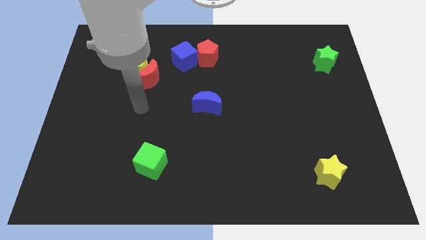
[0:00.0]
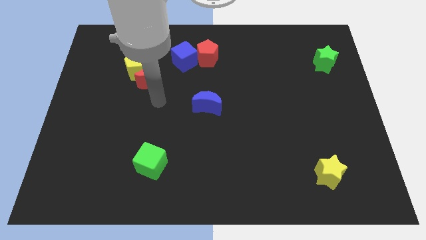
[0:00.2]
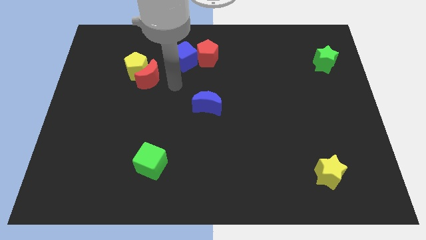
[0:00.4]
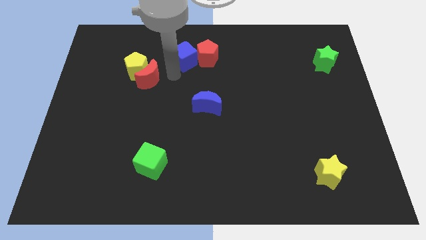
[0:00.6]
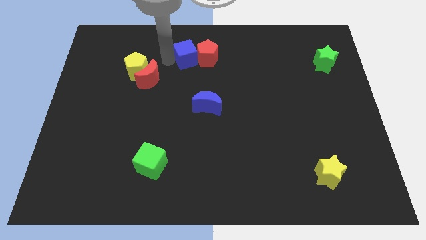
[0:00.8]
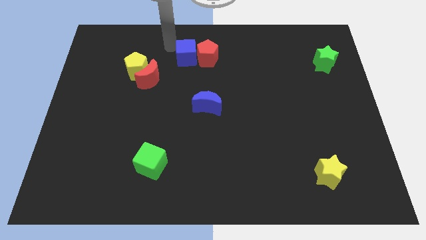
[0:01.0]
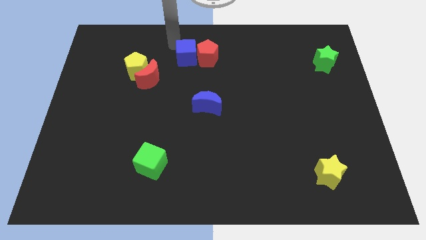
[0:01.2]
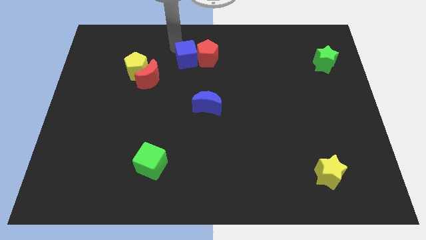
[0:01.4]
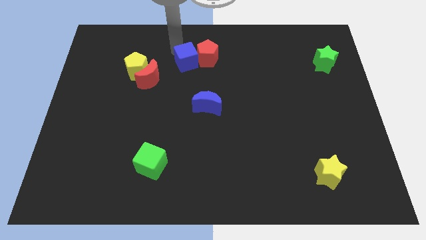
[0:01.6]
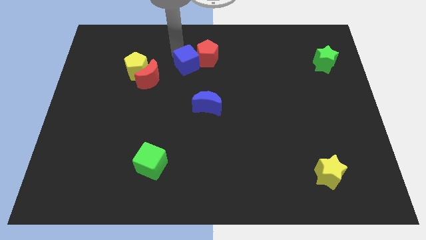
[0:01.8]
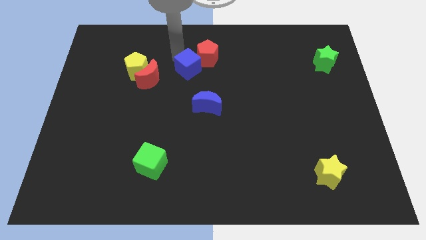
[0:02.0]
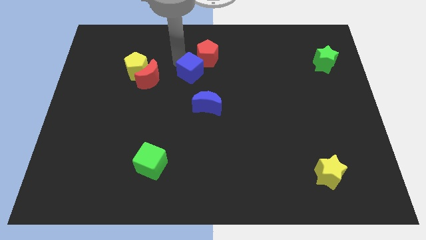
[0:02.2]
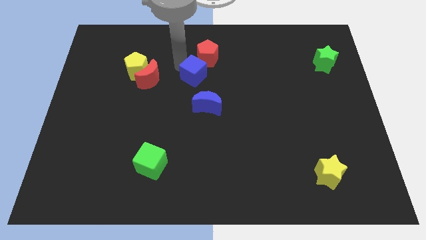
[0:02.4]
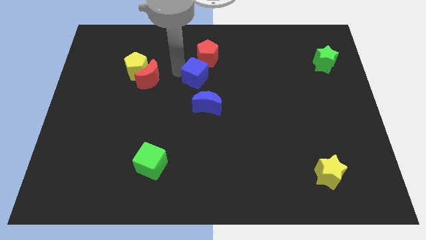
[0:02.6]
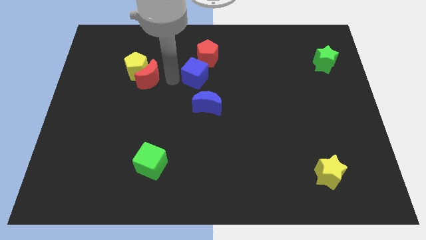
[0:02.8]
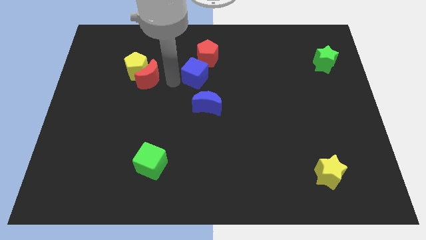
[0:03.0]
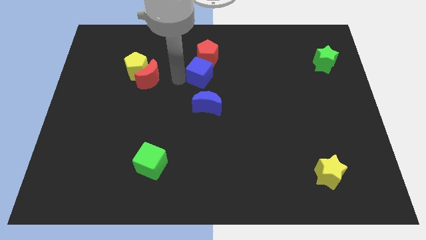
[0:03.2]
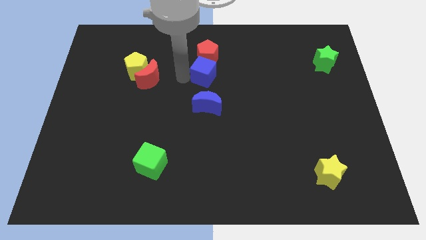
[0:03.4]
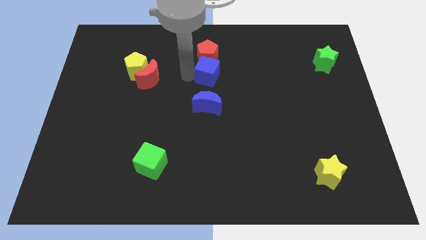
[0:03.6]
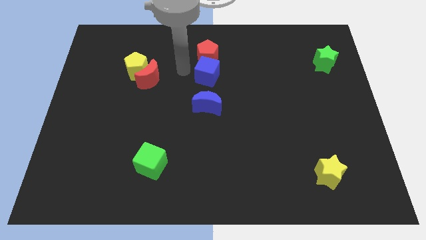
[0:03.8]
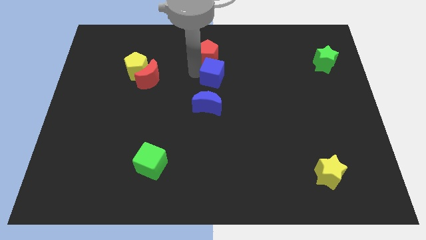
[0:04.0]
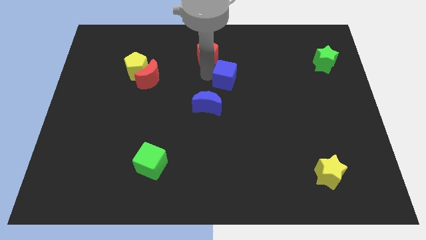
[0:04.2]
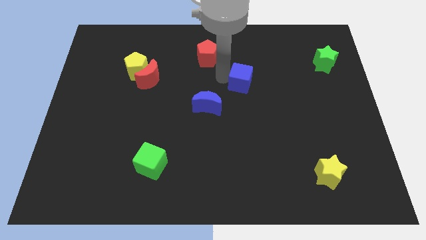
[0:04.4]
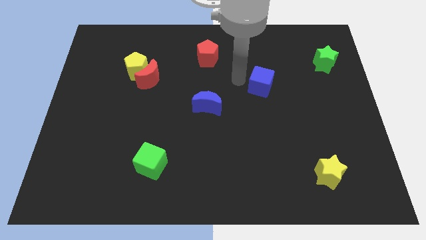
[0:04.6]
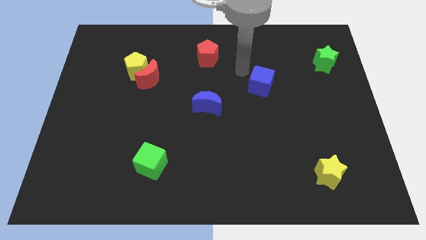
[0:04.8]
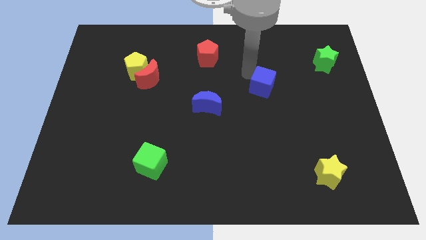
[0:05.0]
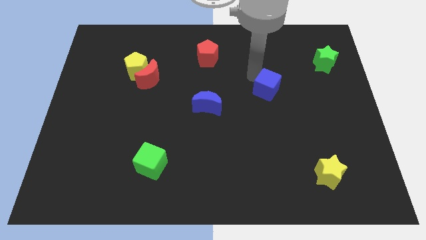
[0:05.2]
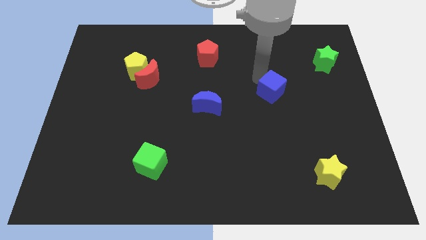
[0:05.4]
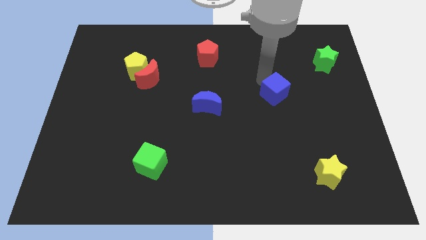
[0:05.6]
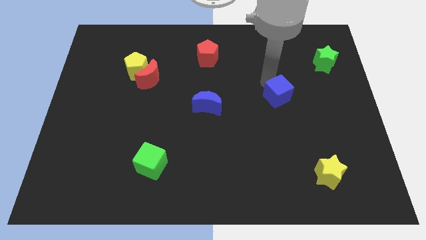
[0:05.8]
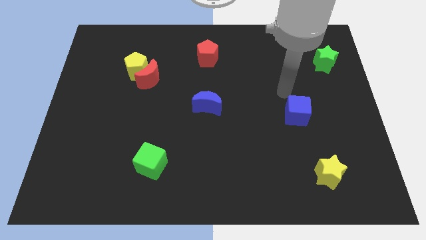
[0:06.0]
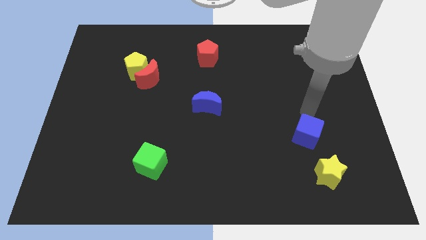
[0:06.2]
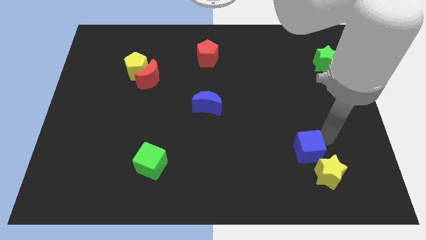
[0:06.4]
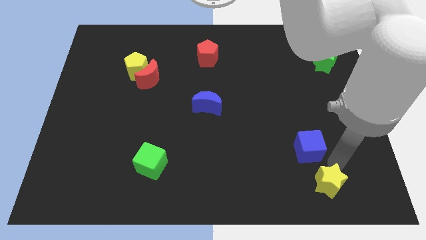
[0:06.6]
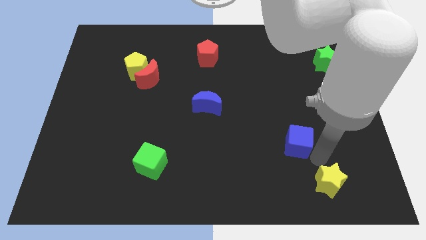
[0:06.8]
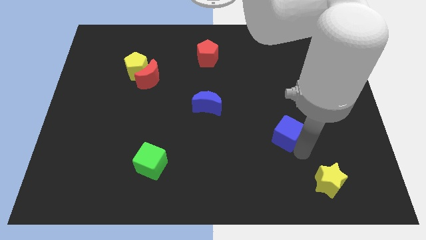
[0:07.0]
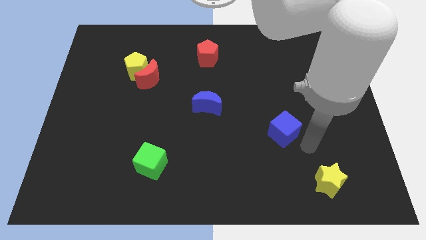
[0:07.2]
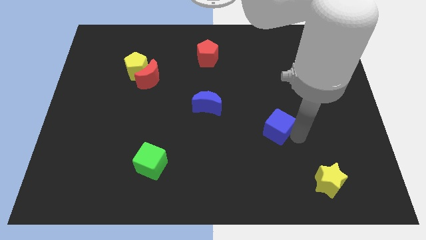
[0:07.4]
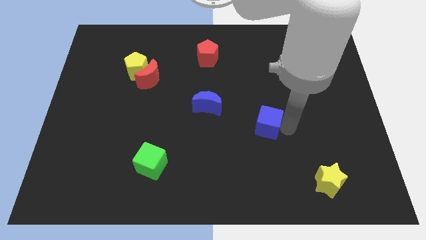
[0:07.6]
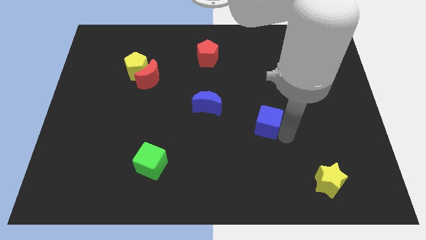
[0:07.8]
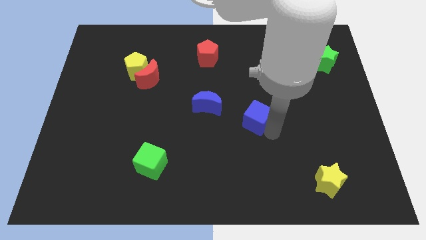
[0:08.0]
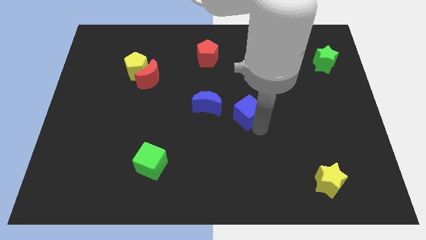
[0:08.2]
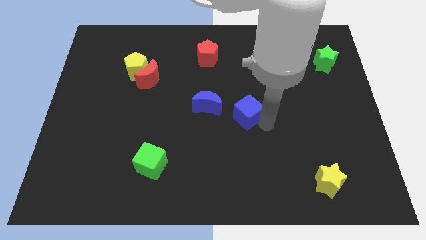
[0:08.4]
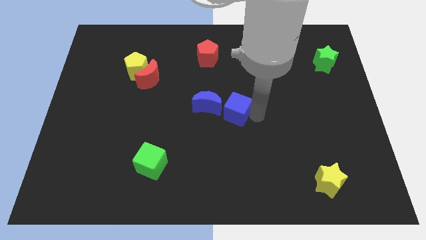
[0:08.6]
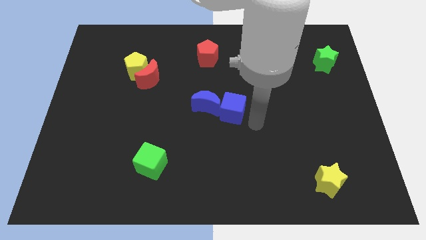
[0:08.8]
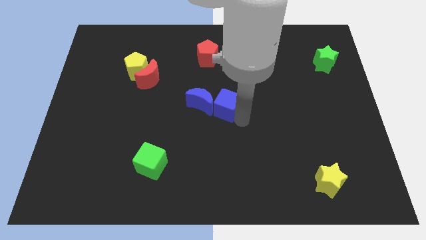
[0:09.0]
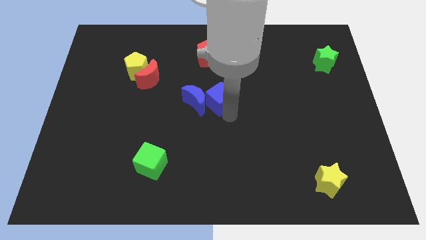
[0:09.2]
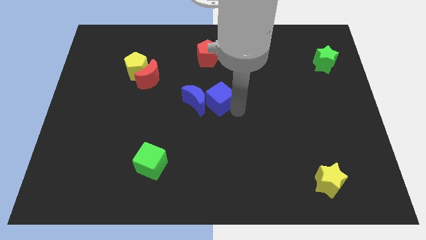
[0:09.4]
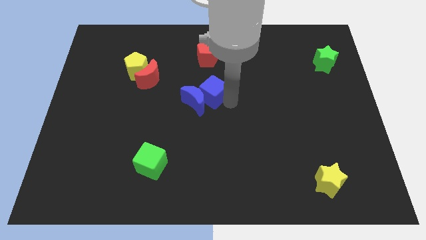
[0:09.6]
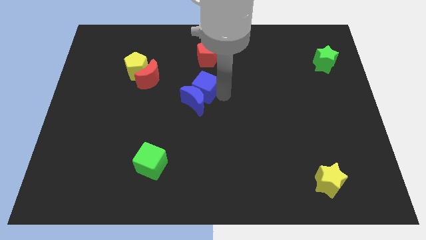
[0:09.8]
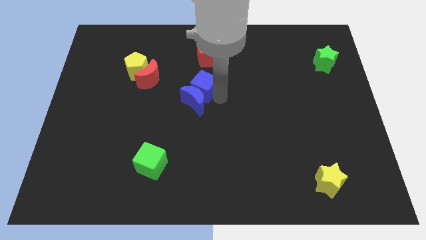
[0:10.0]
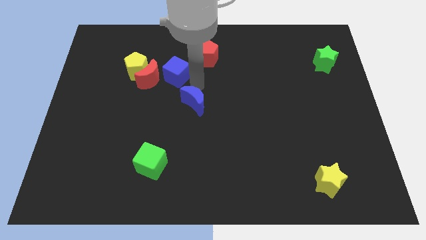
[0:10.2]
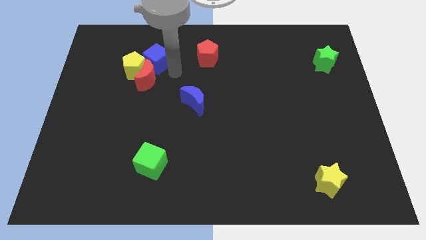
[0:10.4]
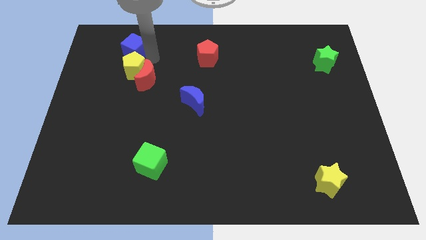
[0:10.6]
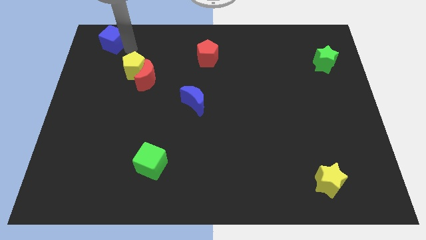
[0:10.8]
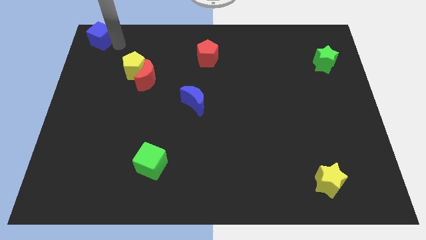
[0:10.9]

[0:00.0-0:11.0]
put the blue cube to the upper left corner

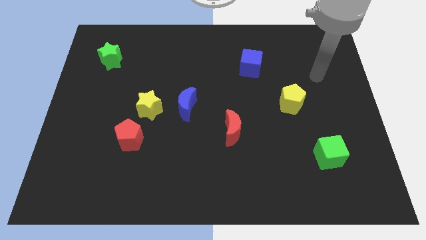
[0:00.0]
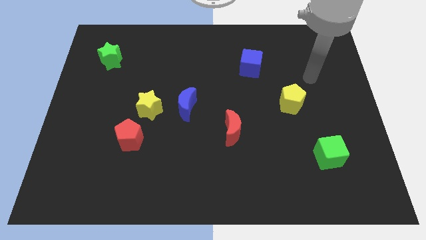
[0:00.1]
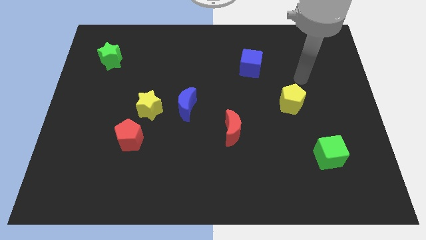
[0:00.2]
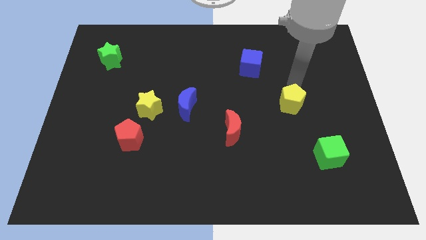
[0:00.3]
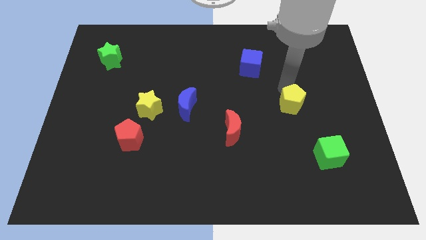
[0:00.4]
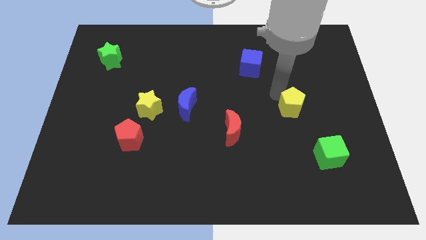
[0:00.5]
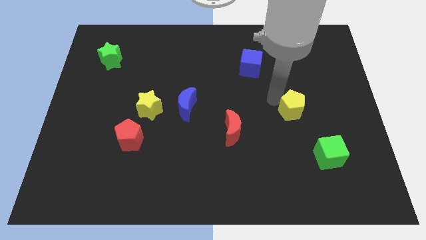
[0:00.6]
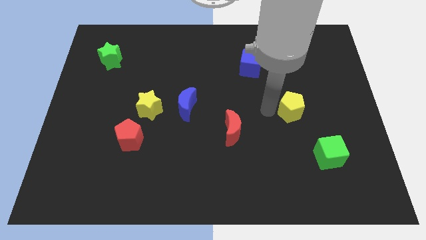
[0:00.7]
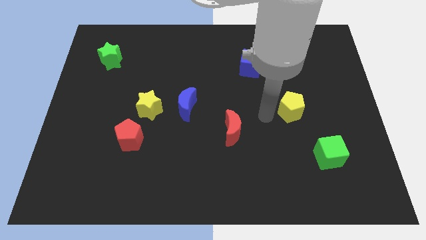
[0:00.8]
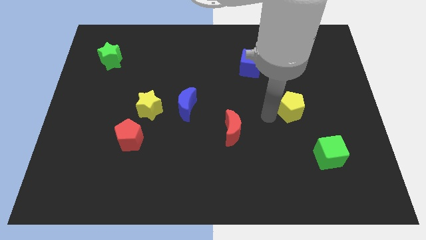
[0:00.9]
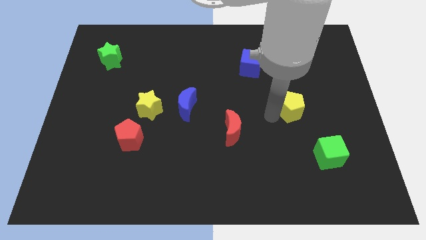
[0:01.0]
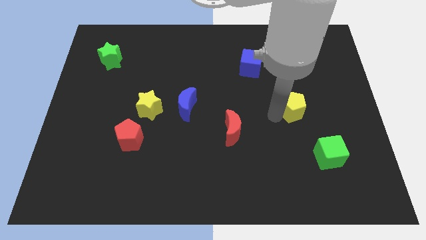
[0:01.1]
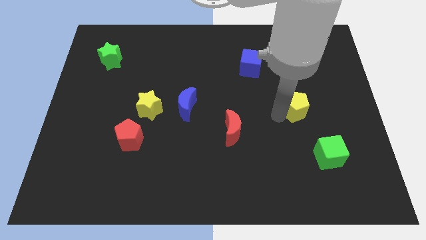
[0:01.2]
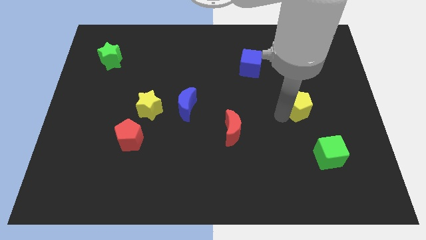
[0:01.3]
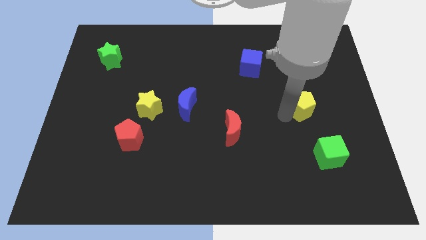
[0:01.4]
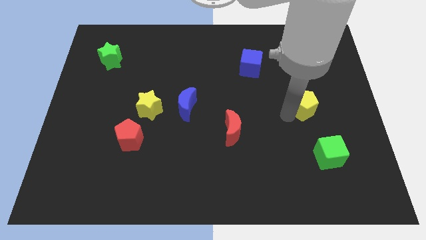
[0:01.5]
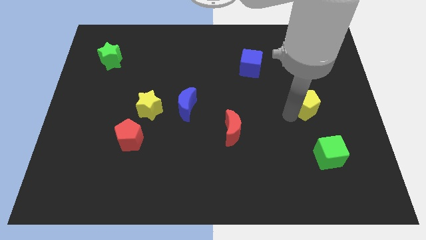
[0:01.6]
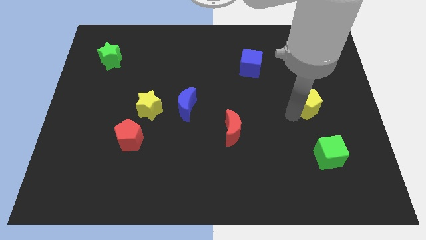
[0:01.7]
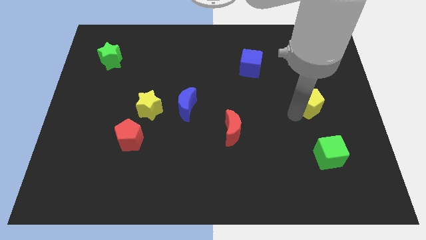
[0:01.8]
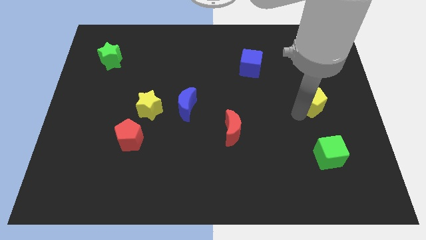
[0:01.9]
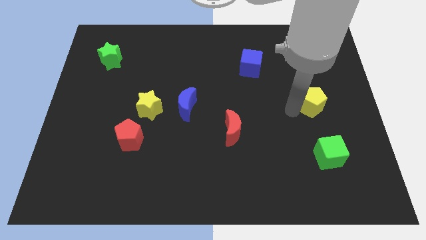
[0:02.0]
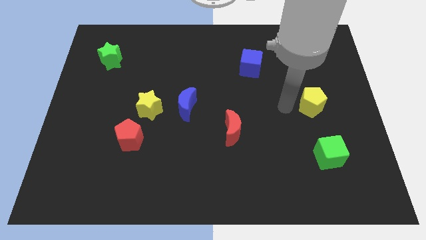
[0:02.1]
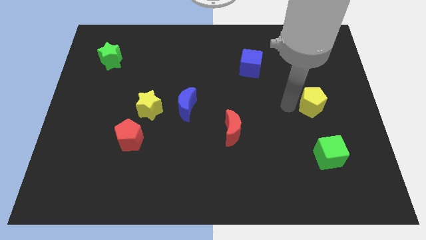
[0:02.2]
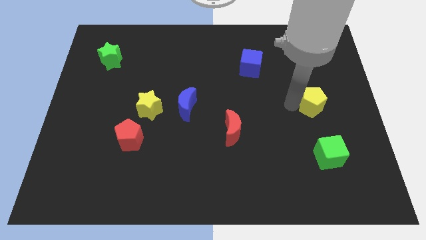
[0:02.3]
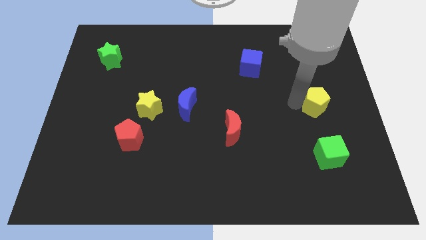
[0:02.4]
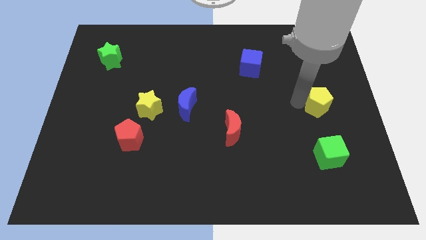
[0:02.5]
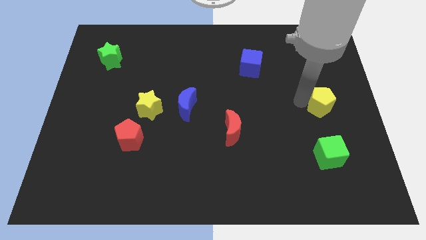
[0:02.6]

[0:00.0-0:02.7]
move the yellow pentagon to the right side
